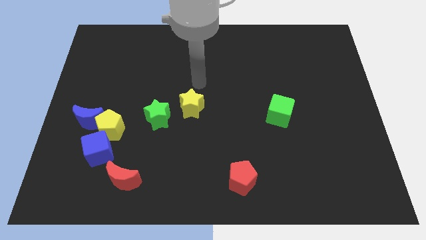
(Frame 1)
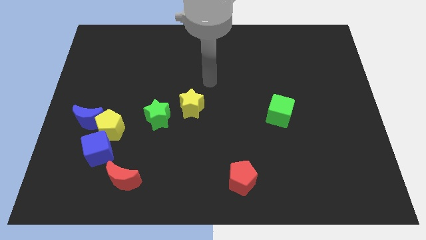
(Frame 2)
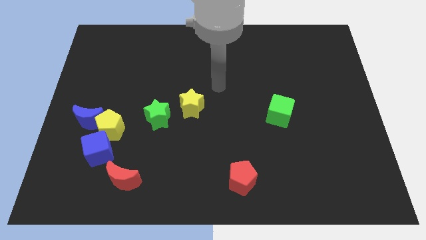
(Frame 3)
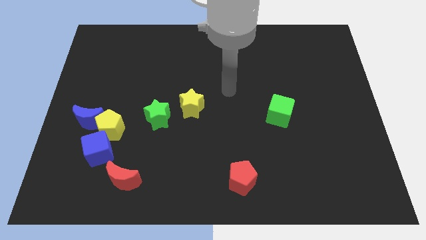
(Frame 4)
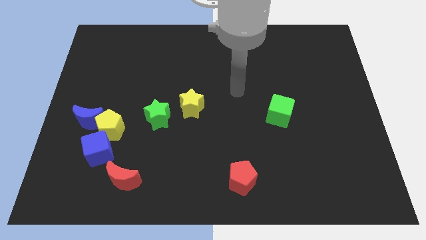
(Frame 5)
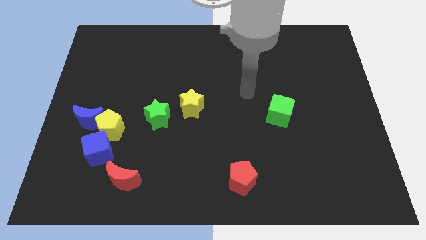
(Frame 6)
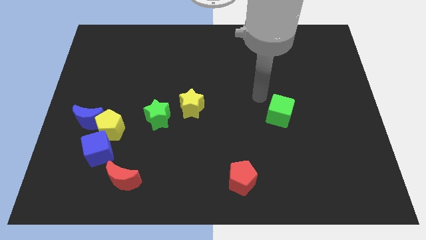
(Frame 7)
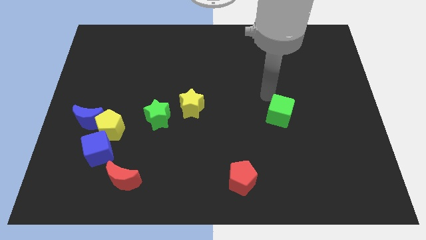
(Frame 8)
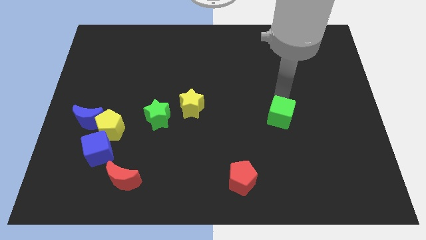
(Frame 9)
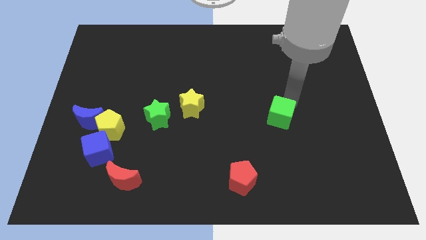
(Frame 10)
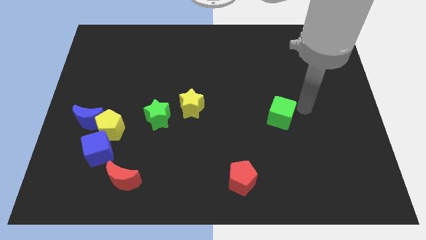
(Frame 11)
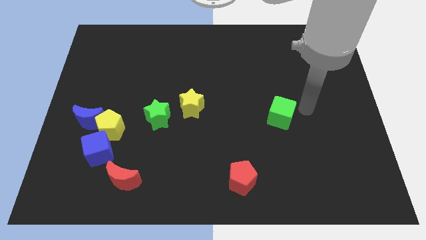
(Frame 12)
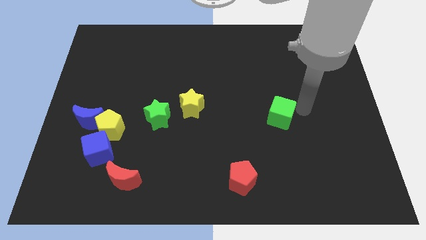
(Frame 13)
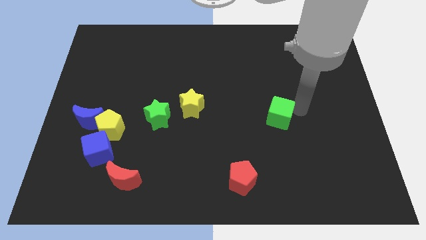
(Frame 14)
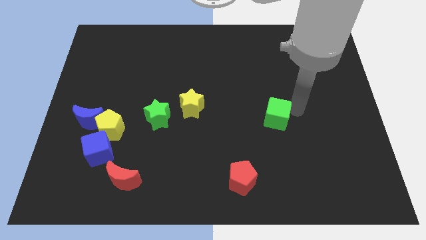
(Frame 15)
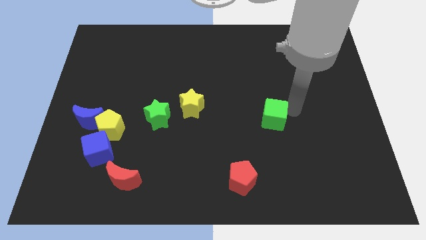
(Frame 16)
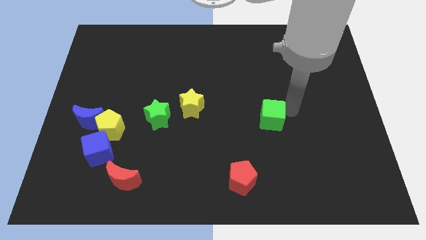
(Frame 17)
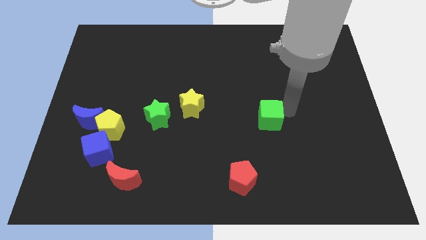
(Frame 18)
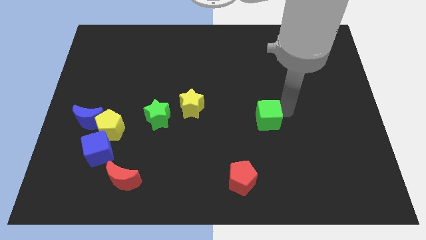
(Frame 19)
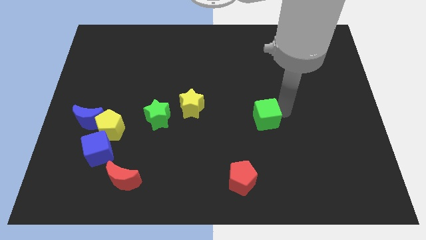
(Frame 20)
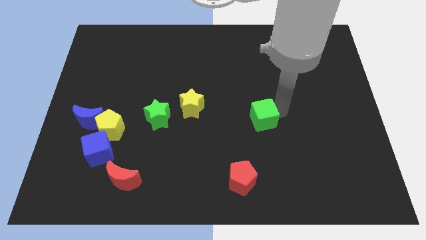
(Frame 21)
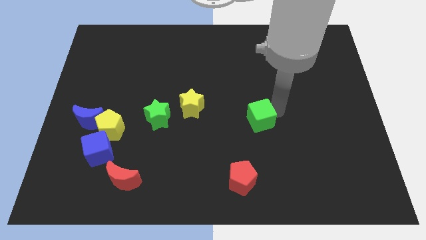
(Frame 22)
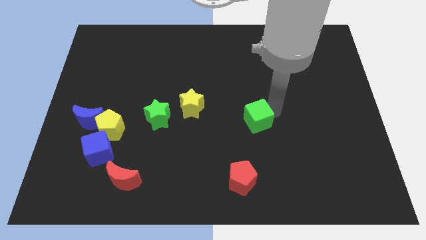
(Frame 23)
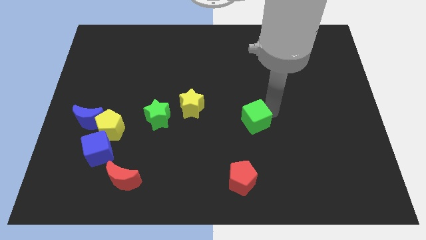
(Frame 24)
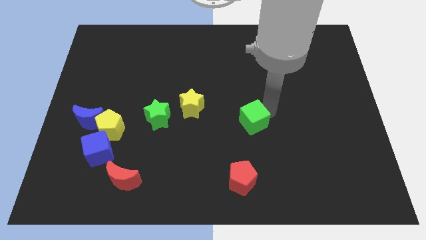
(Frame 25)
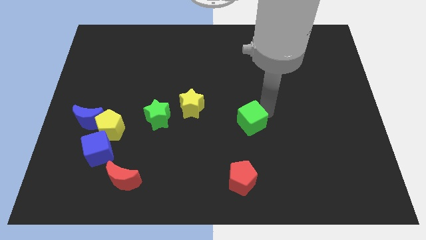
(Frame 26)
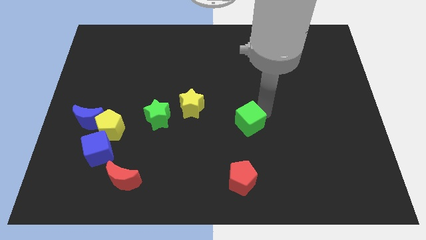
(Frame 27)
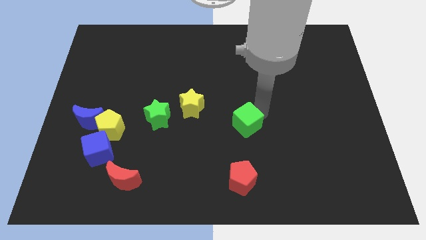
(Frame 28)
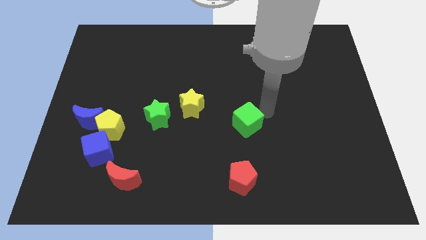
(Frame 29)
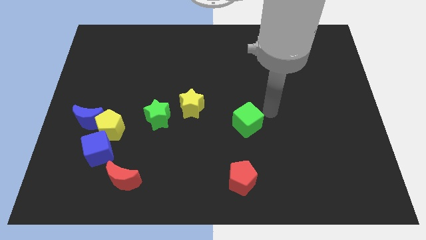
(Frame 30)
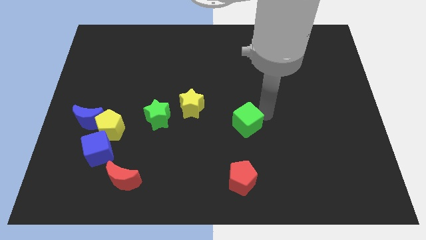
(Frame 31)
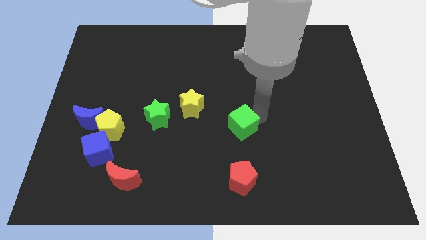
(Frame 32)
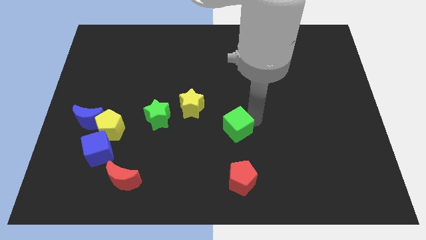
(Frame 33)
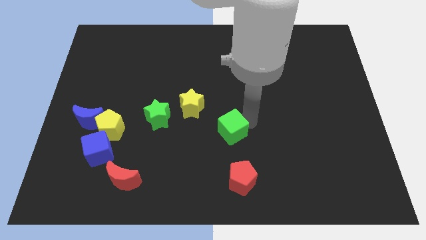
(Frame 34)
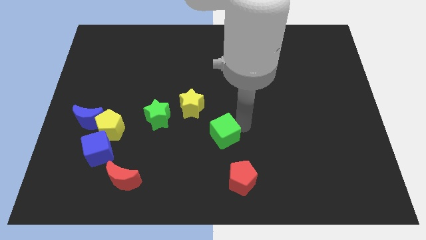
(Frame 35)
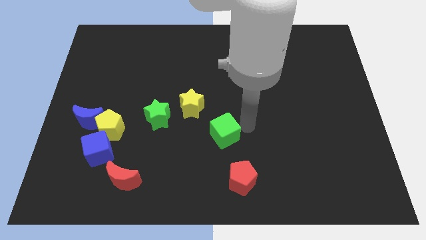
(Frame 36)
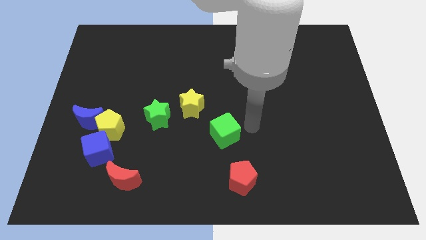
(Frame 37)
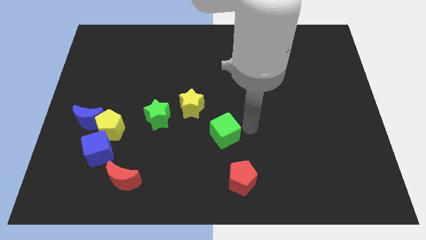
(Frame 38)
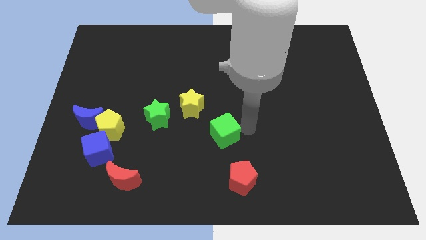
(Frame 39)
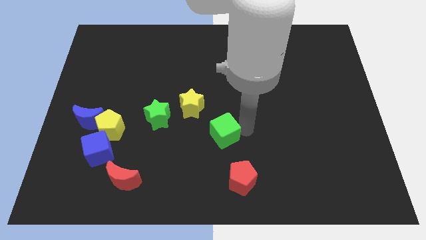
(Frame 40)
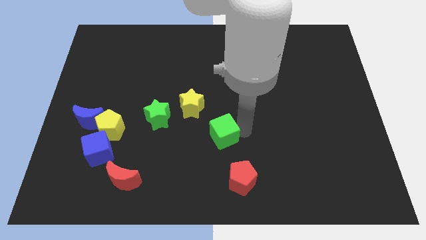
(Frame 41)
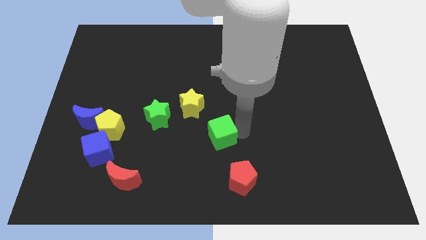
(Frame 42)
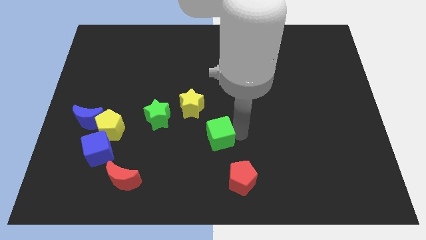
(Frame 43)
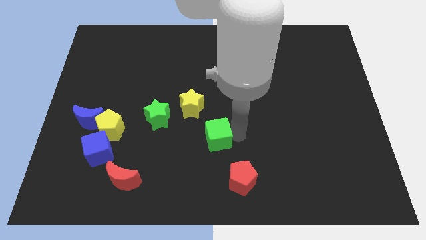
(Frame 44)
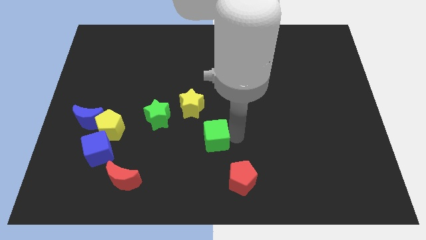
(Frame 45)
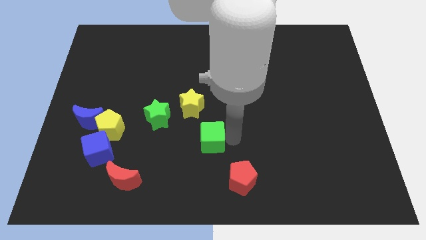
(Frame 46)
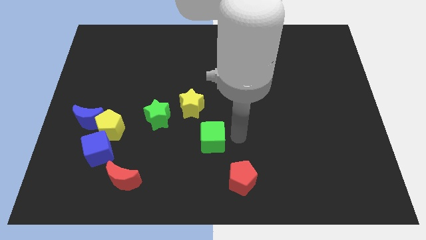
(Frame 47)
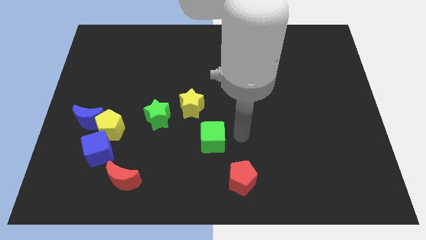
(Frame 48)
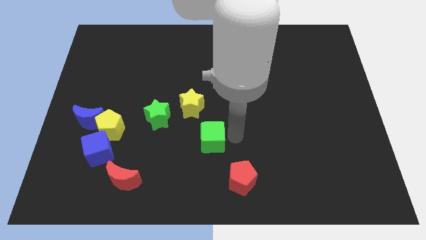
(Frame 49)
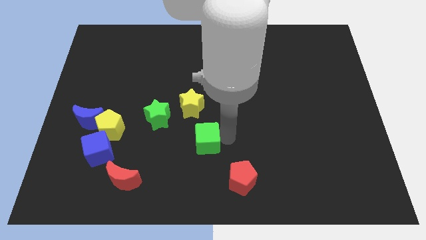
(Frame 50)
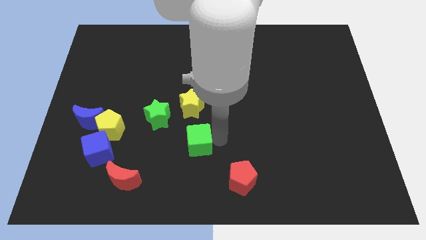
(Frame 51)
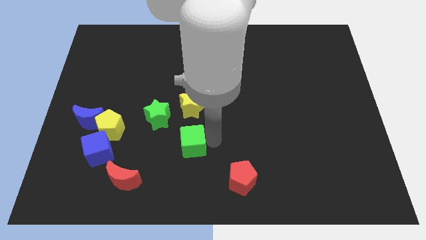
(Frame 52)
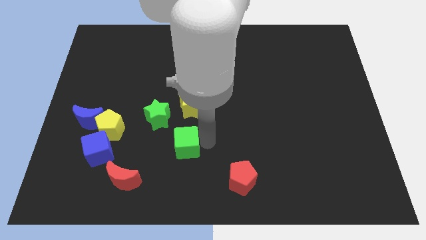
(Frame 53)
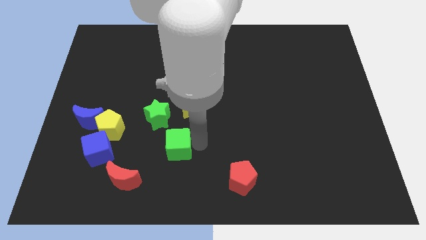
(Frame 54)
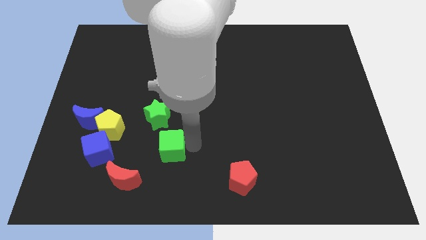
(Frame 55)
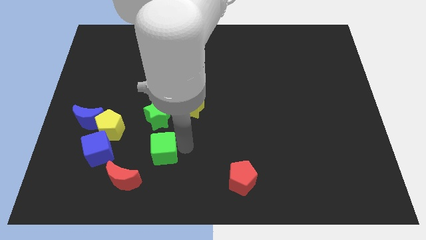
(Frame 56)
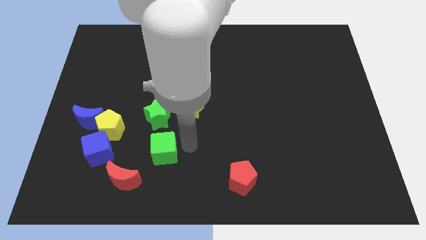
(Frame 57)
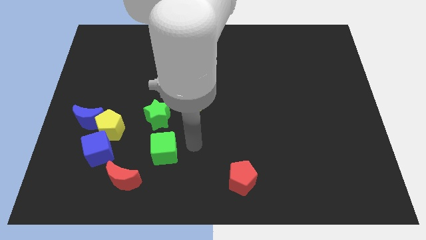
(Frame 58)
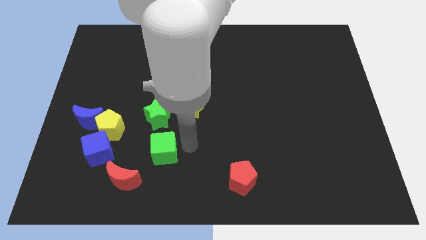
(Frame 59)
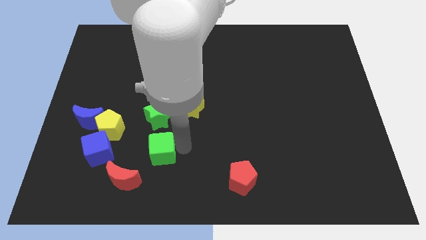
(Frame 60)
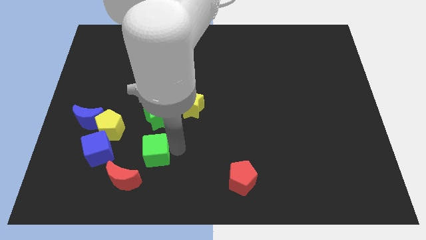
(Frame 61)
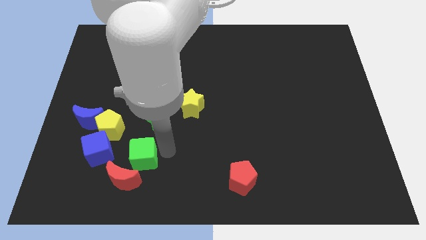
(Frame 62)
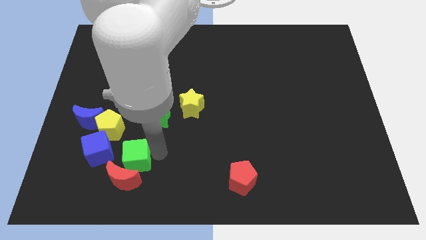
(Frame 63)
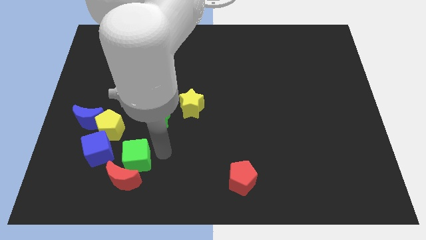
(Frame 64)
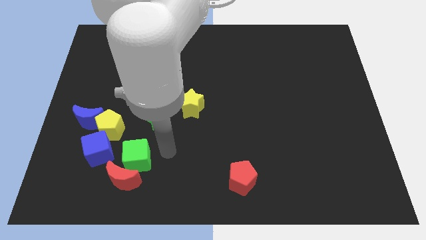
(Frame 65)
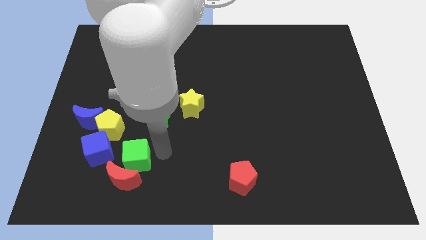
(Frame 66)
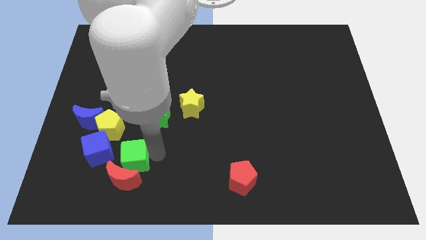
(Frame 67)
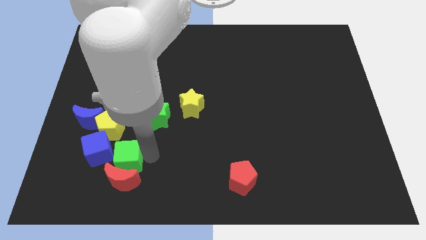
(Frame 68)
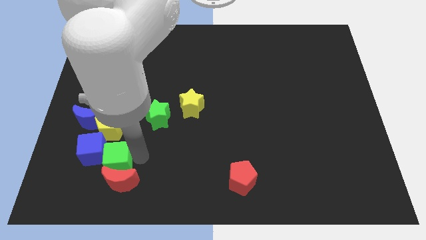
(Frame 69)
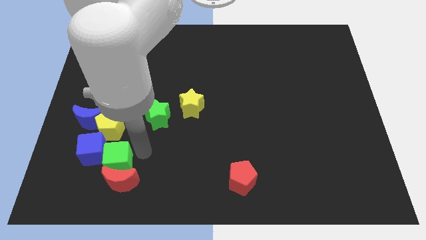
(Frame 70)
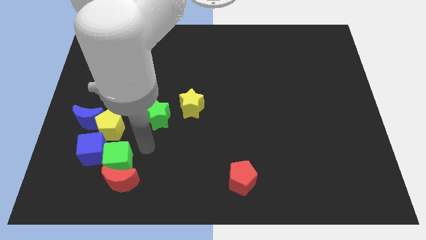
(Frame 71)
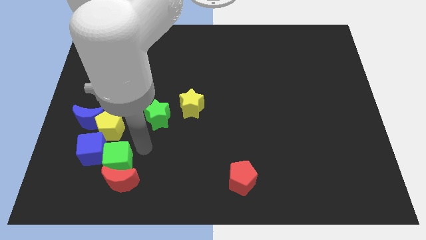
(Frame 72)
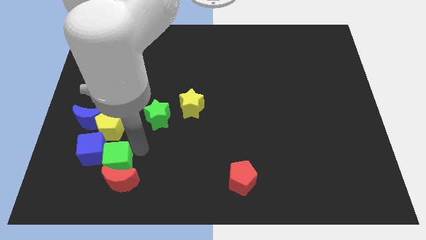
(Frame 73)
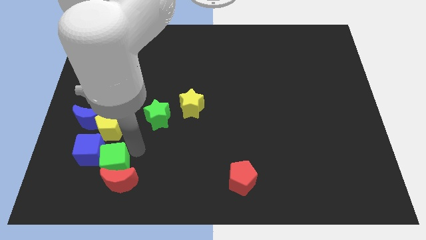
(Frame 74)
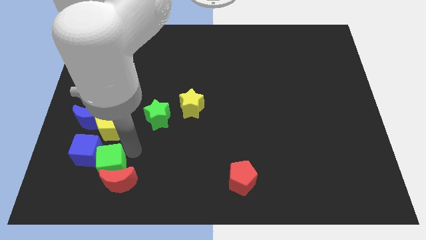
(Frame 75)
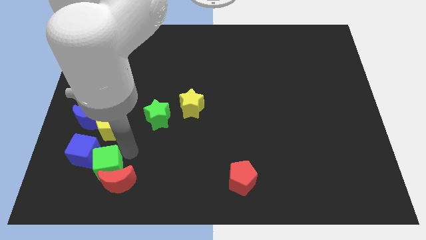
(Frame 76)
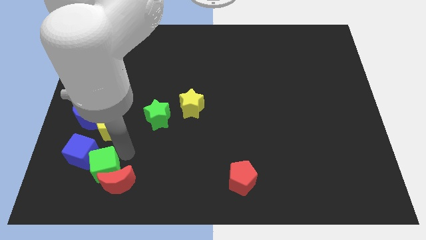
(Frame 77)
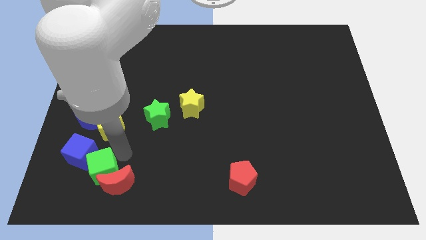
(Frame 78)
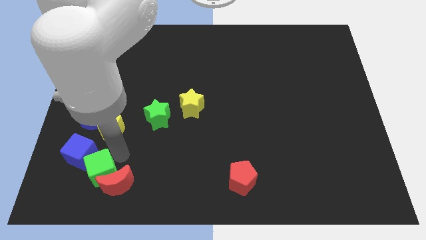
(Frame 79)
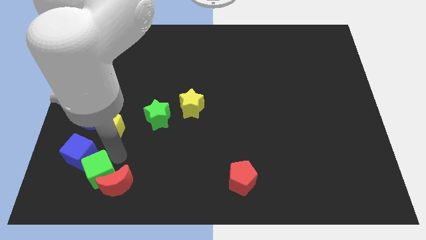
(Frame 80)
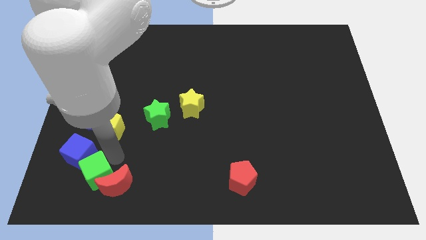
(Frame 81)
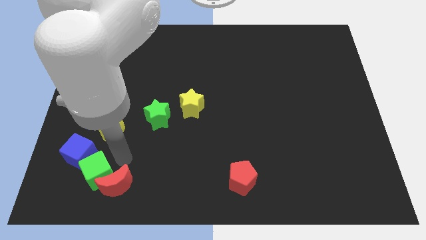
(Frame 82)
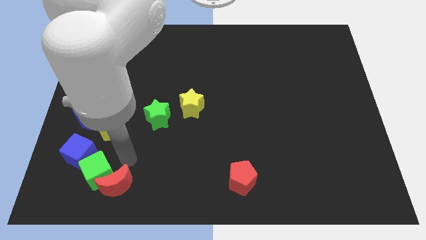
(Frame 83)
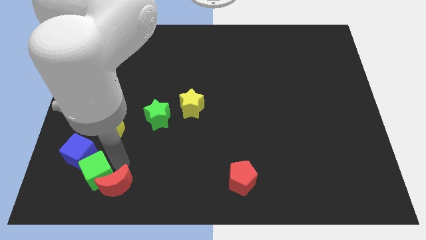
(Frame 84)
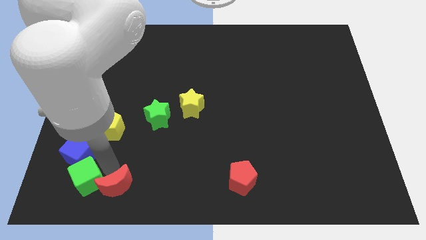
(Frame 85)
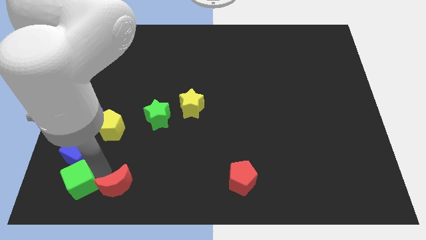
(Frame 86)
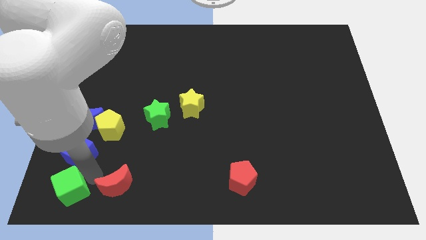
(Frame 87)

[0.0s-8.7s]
slide the green cube to the lower left corner
